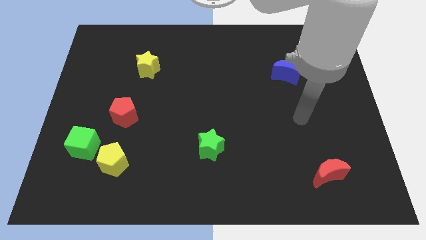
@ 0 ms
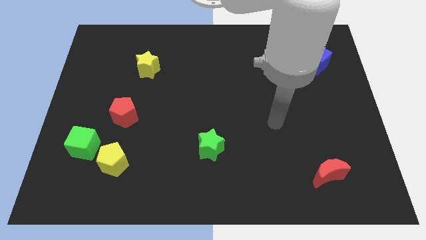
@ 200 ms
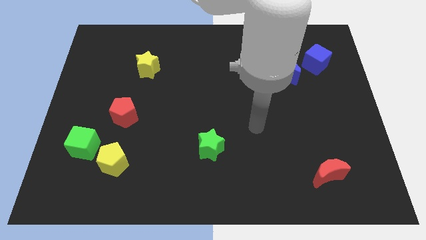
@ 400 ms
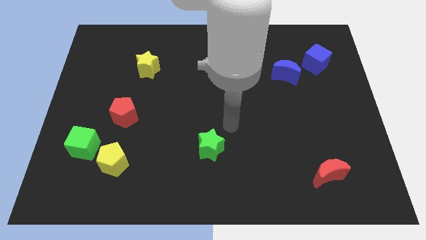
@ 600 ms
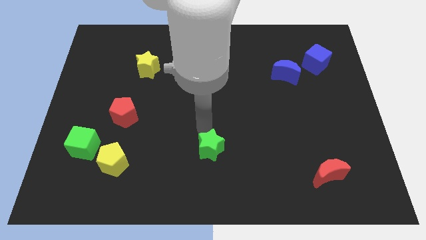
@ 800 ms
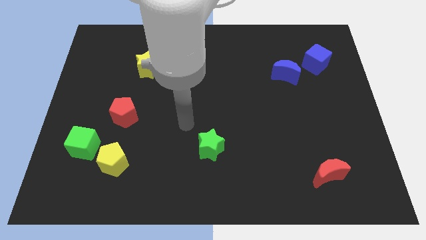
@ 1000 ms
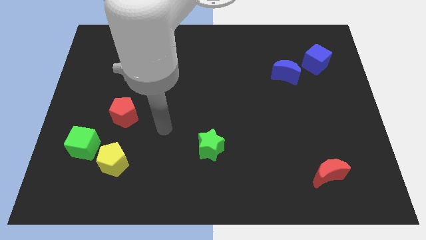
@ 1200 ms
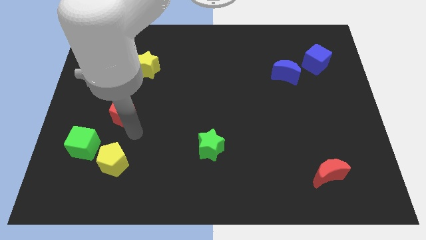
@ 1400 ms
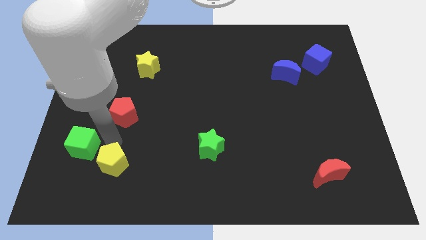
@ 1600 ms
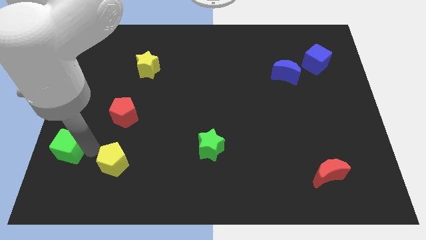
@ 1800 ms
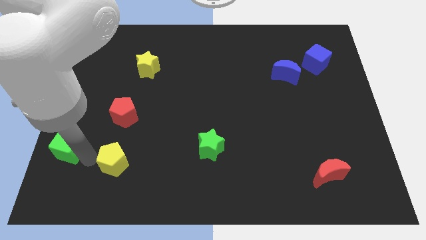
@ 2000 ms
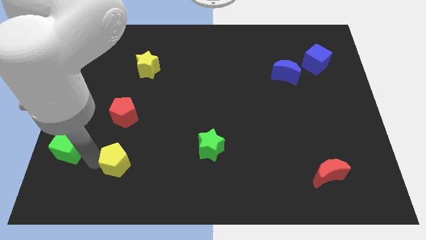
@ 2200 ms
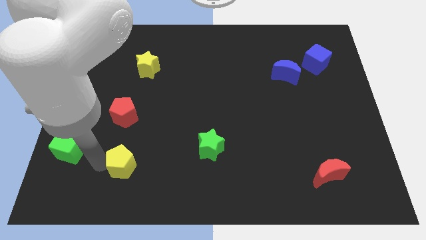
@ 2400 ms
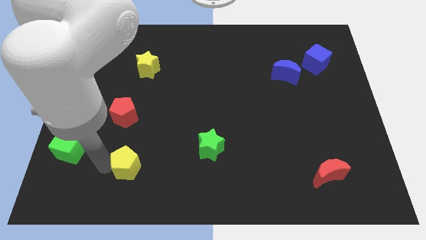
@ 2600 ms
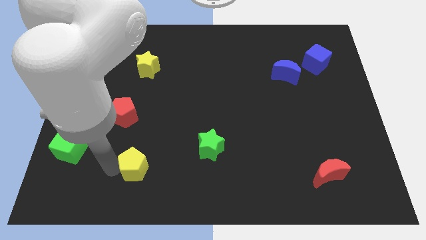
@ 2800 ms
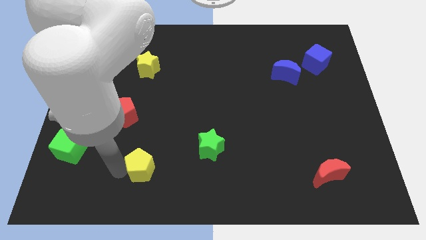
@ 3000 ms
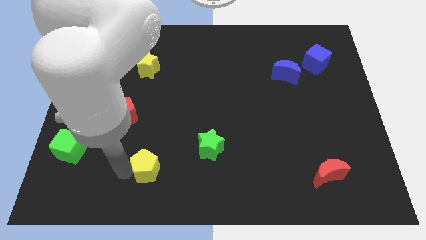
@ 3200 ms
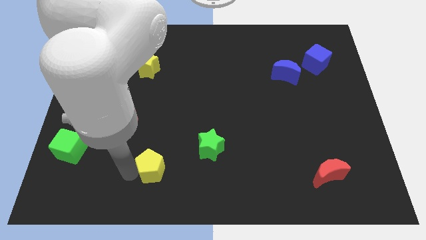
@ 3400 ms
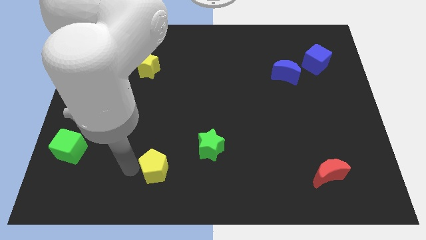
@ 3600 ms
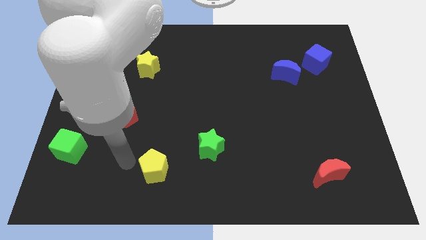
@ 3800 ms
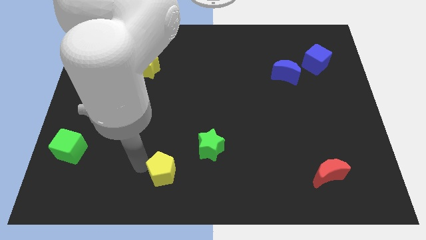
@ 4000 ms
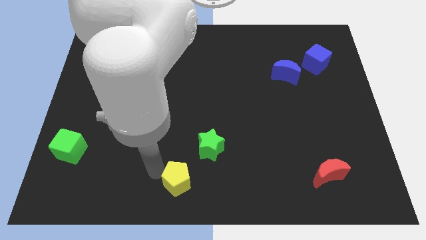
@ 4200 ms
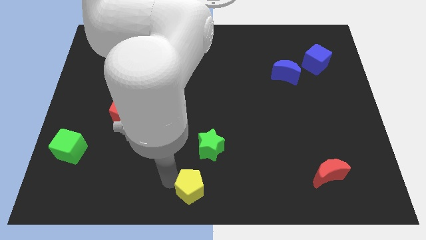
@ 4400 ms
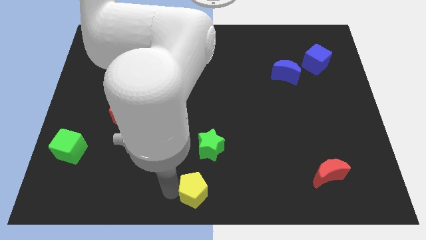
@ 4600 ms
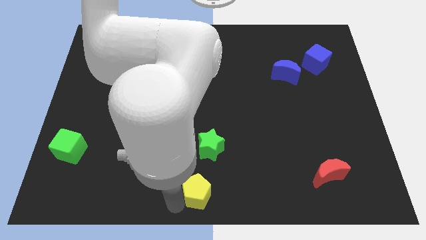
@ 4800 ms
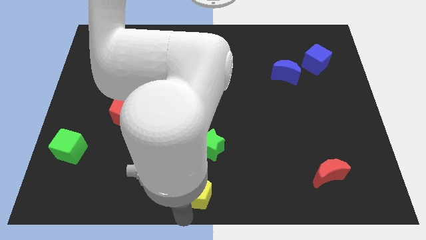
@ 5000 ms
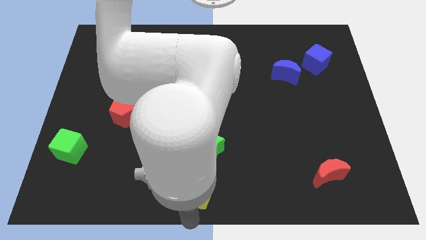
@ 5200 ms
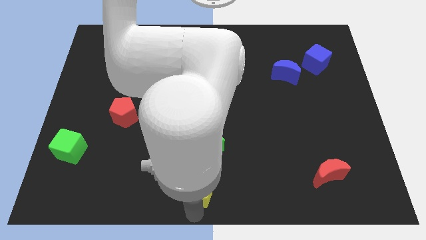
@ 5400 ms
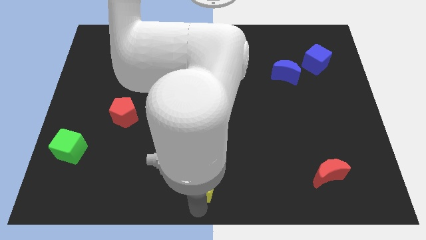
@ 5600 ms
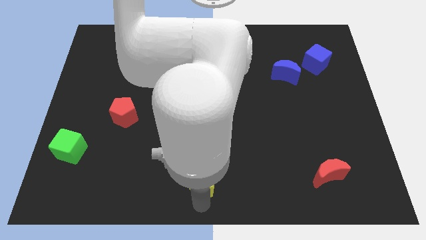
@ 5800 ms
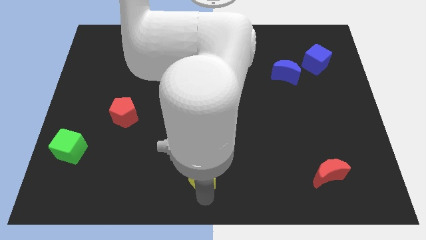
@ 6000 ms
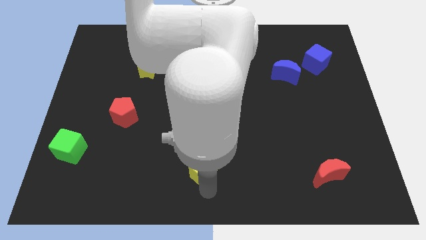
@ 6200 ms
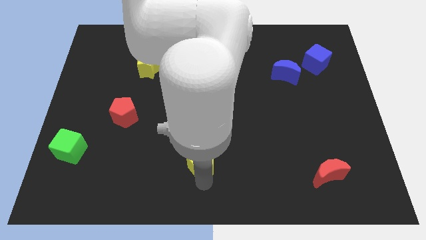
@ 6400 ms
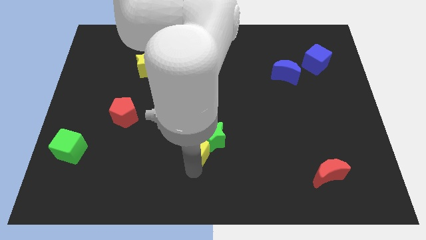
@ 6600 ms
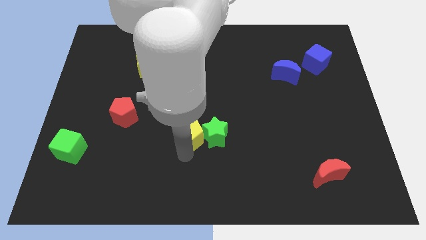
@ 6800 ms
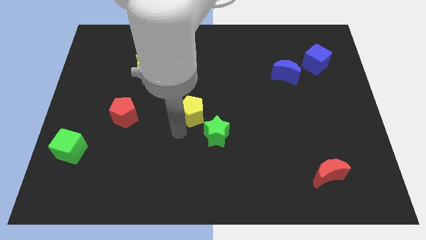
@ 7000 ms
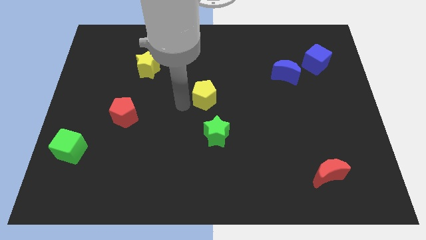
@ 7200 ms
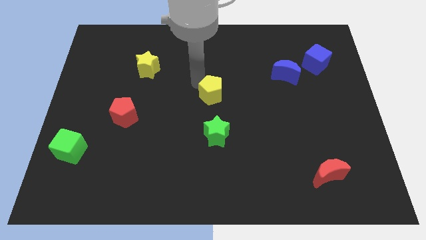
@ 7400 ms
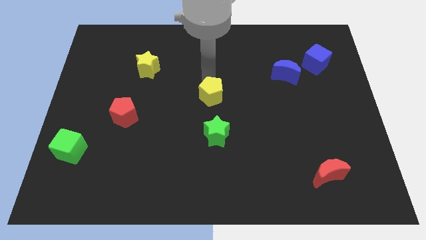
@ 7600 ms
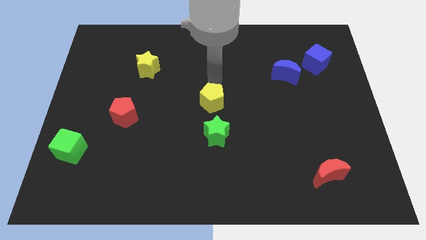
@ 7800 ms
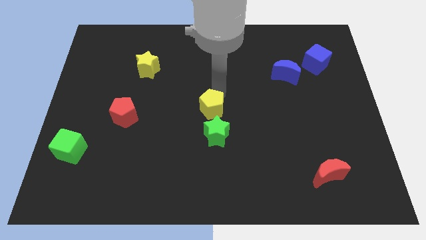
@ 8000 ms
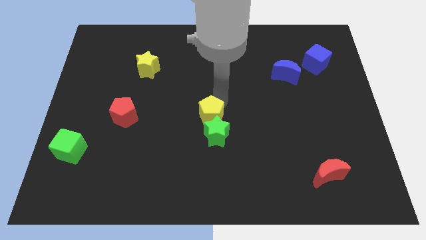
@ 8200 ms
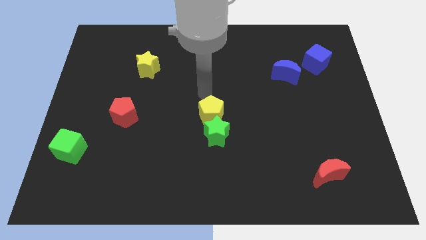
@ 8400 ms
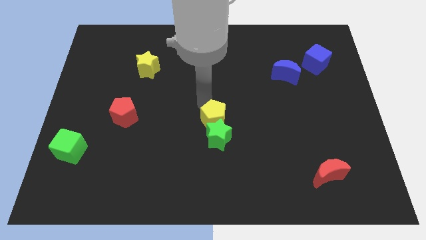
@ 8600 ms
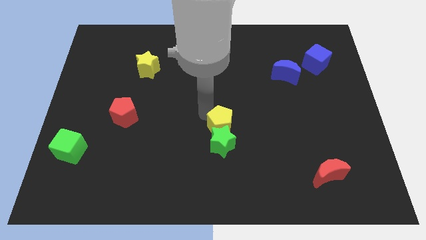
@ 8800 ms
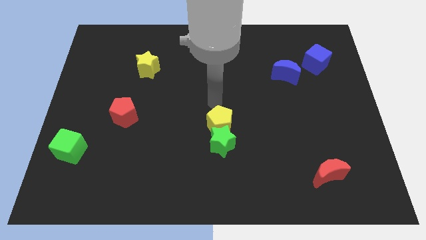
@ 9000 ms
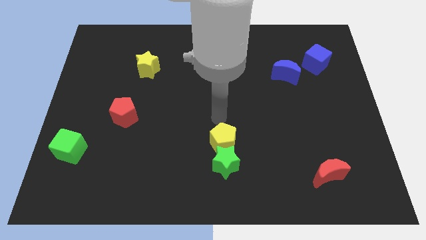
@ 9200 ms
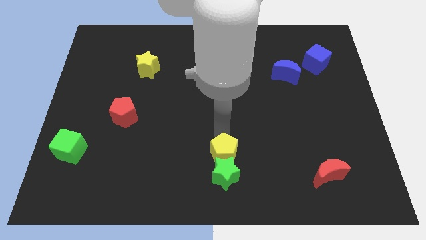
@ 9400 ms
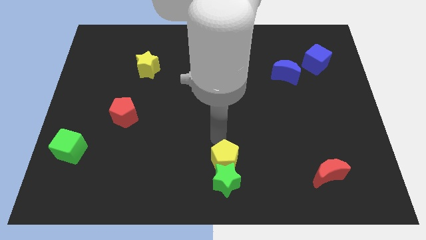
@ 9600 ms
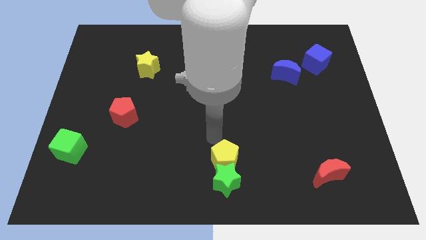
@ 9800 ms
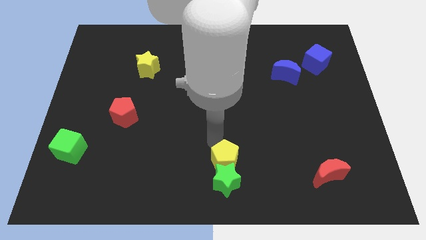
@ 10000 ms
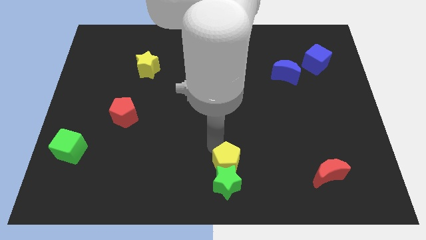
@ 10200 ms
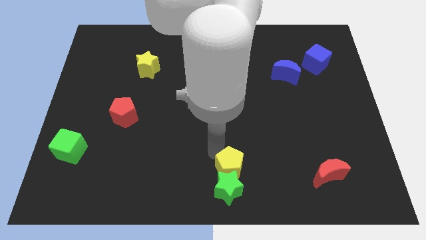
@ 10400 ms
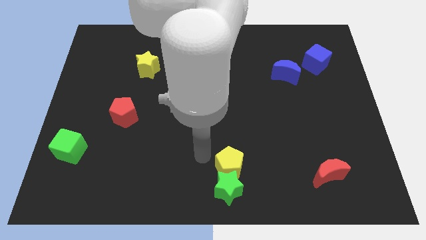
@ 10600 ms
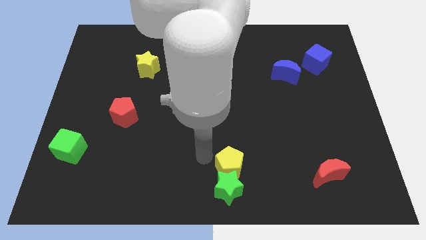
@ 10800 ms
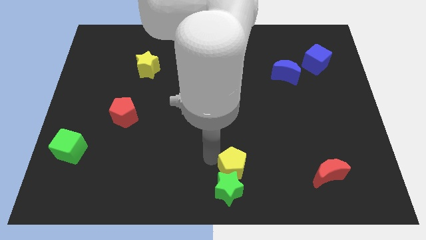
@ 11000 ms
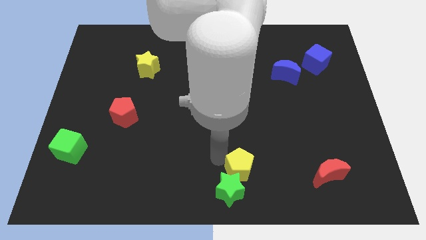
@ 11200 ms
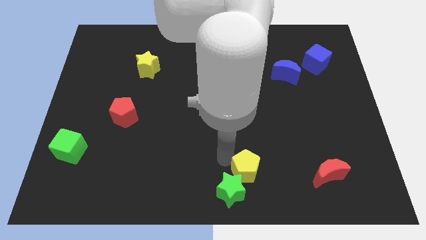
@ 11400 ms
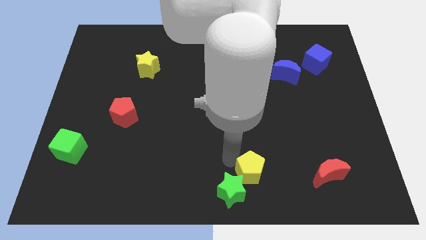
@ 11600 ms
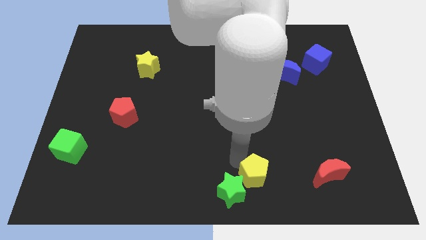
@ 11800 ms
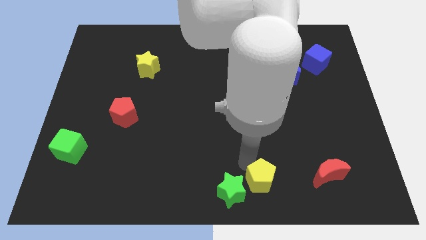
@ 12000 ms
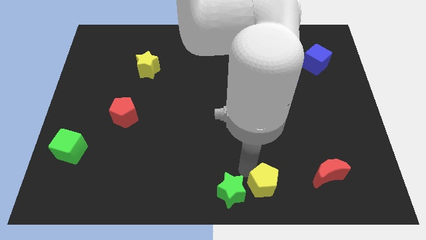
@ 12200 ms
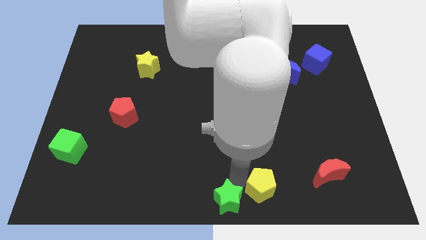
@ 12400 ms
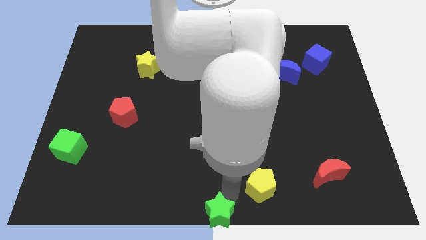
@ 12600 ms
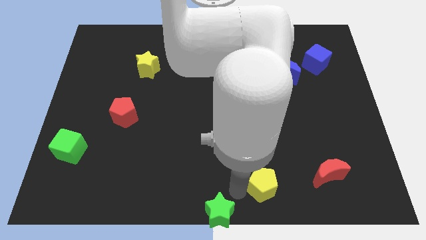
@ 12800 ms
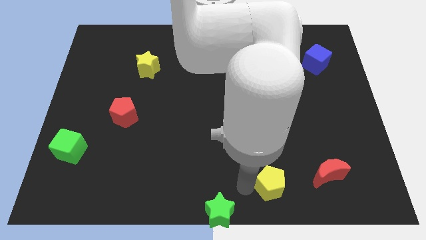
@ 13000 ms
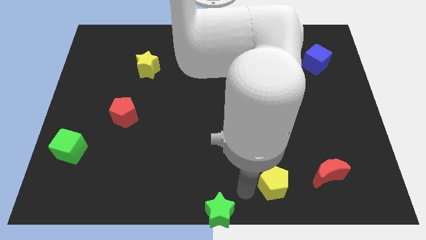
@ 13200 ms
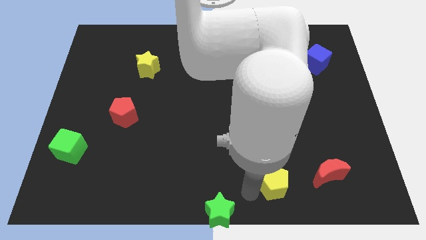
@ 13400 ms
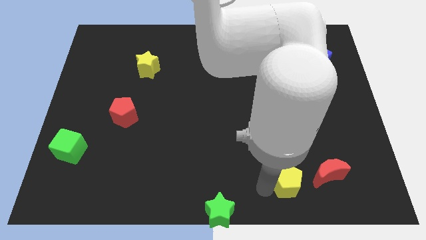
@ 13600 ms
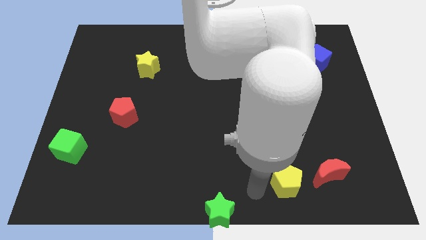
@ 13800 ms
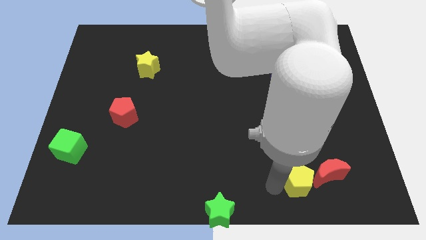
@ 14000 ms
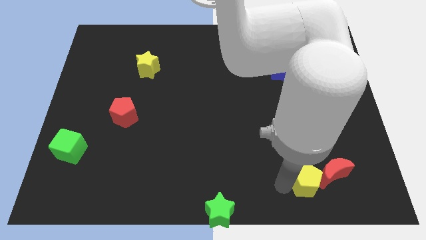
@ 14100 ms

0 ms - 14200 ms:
slide the yellow pentagon towards the red moon

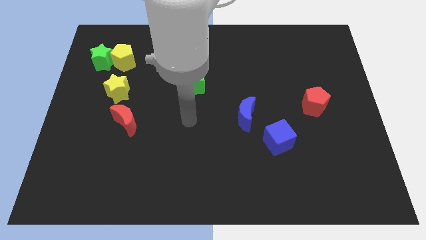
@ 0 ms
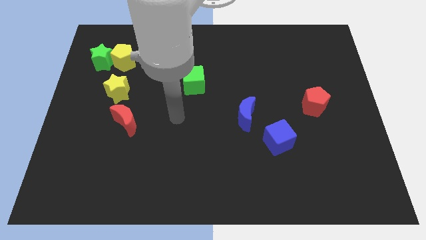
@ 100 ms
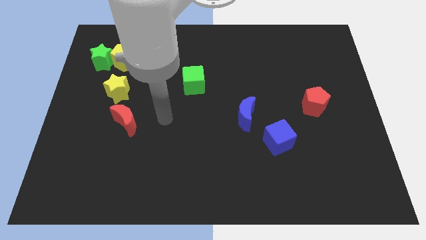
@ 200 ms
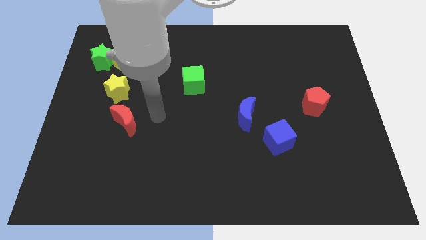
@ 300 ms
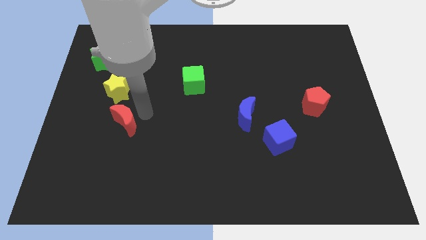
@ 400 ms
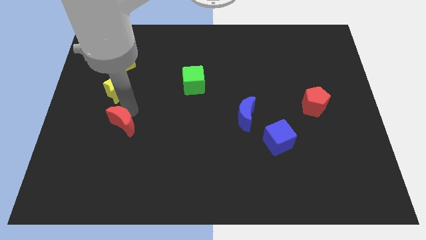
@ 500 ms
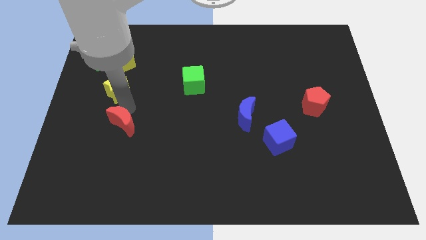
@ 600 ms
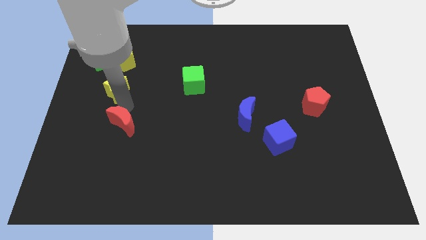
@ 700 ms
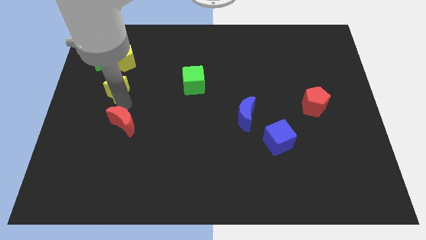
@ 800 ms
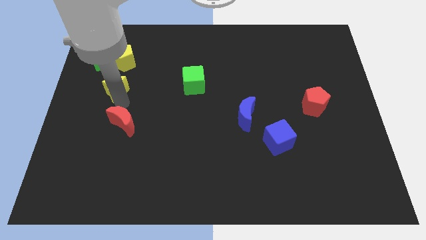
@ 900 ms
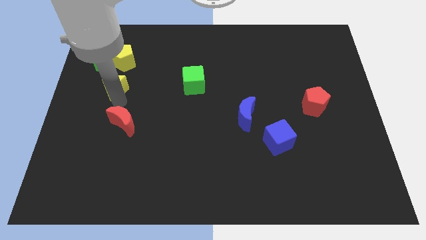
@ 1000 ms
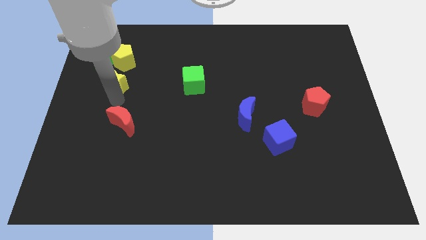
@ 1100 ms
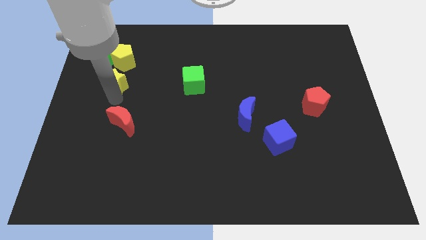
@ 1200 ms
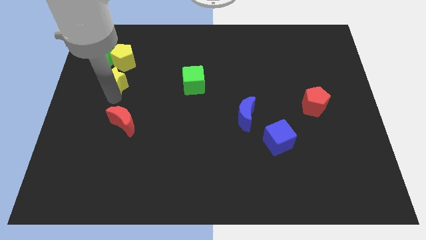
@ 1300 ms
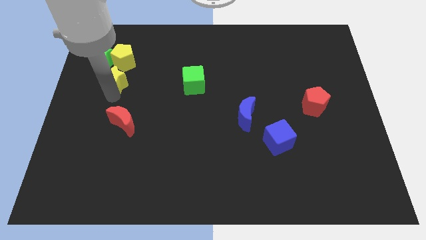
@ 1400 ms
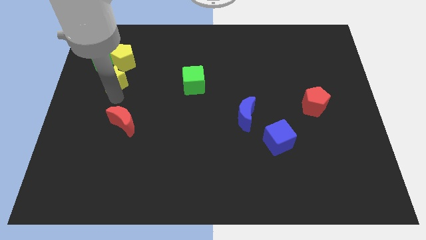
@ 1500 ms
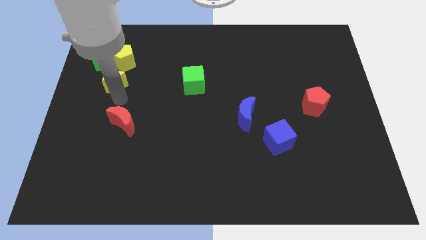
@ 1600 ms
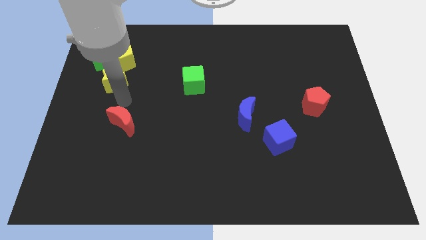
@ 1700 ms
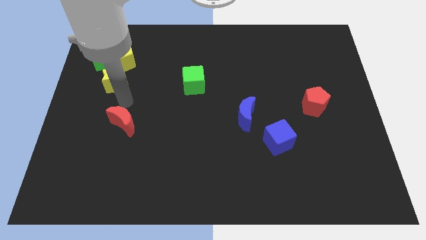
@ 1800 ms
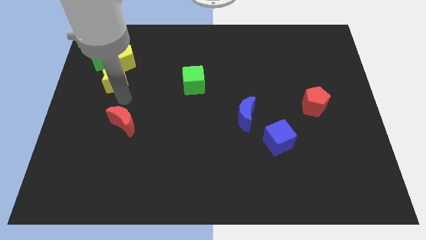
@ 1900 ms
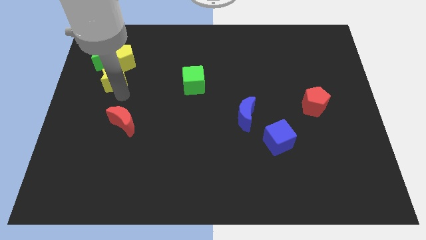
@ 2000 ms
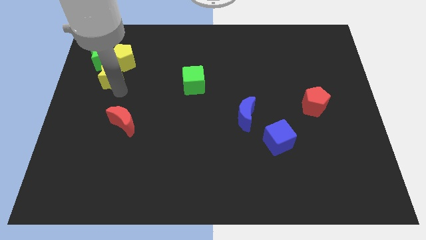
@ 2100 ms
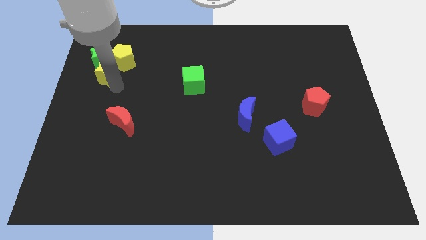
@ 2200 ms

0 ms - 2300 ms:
put the yellow star close to the green star
